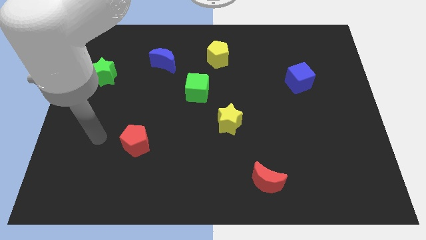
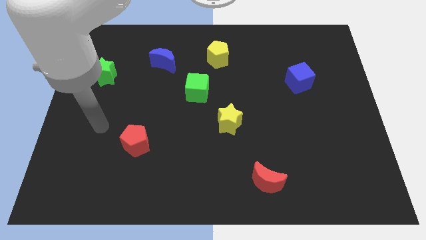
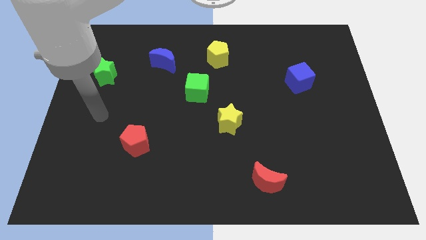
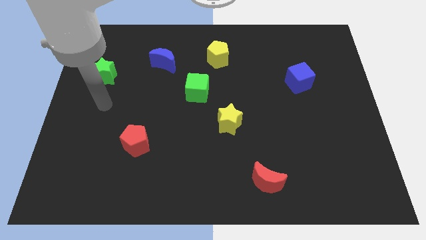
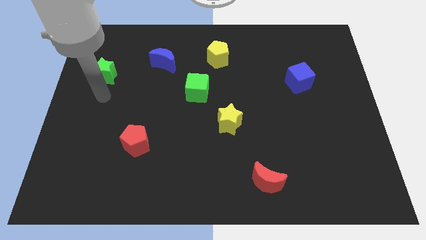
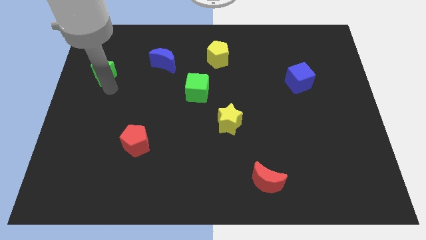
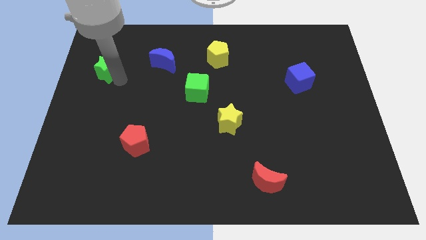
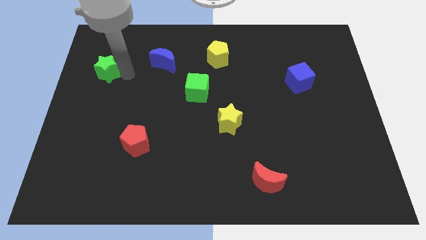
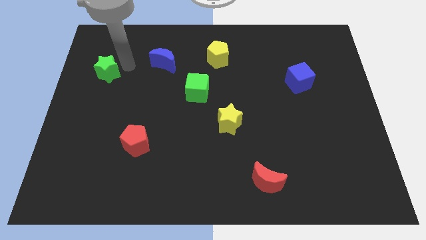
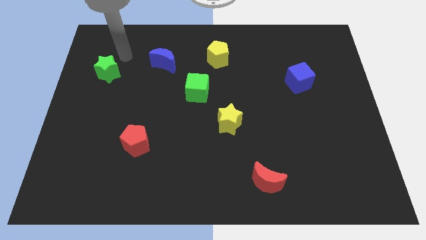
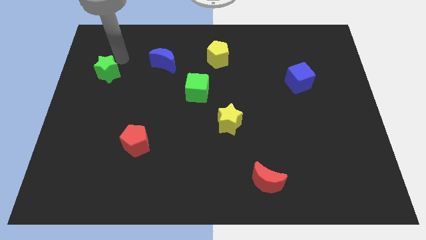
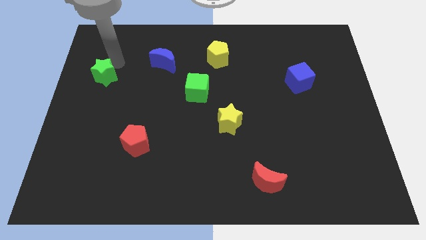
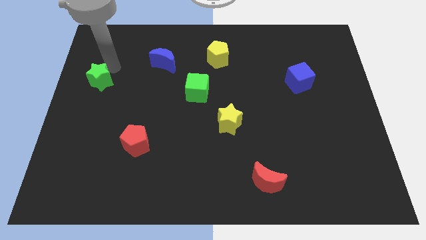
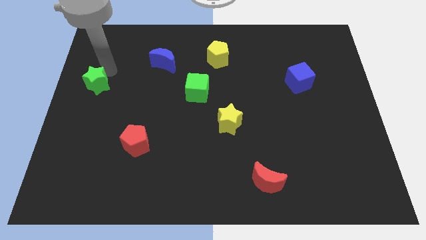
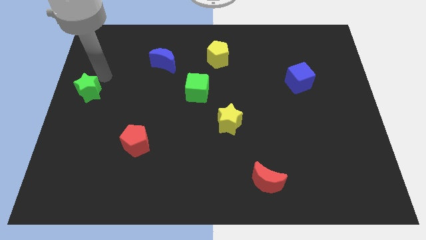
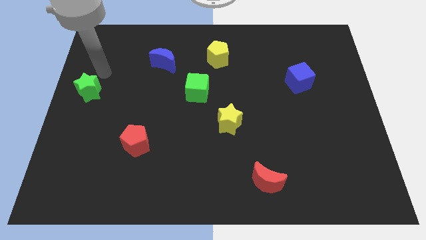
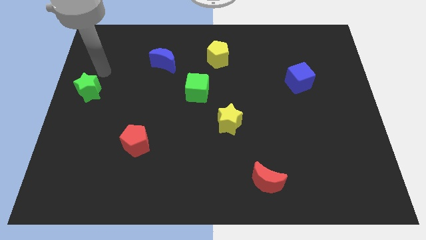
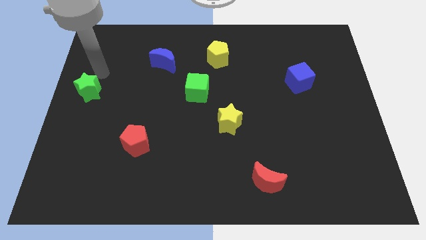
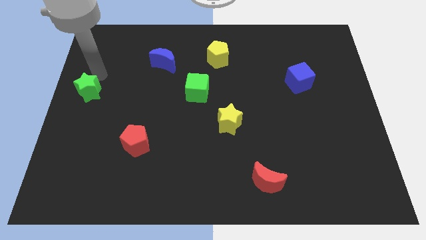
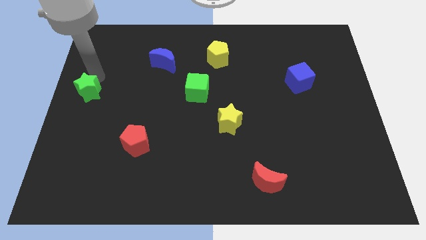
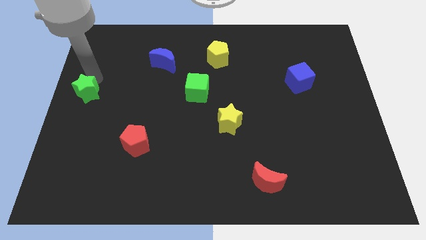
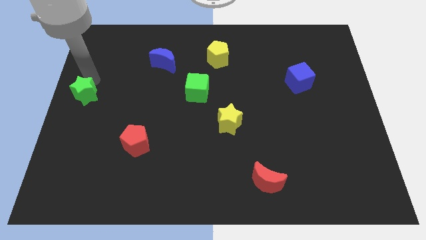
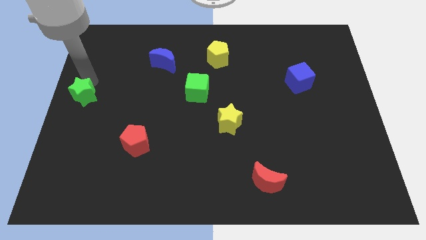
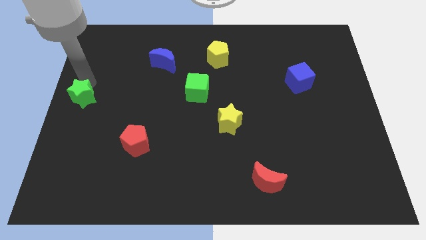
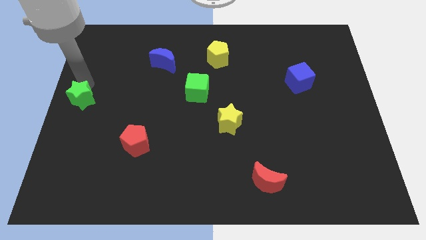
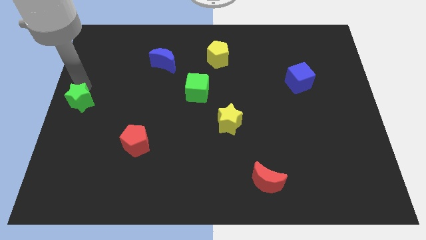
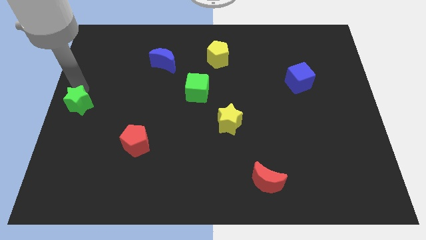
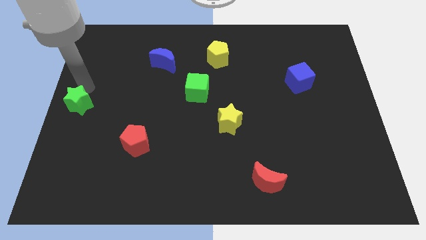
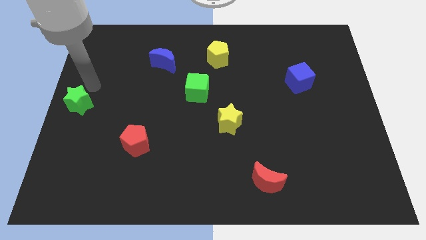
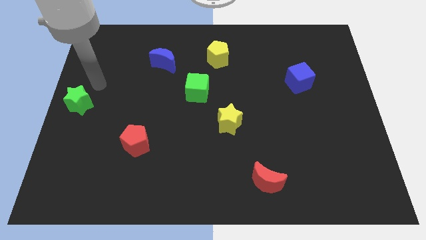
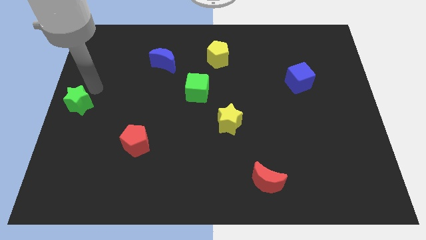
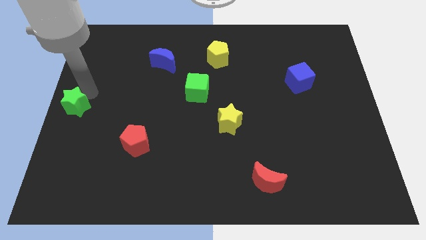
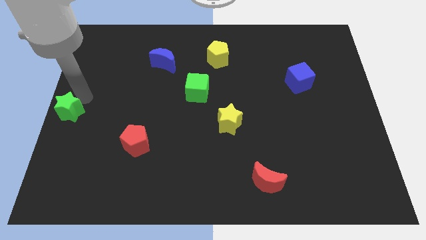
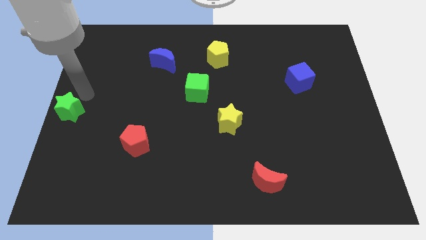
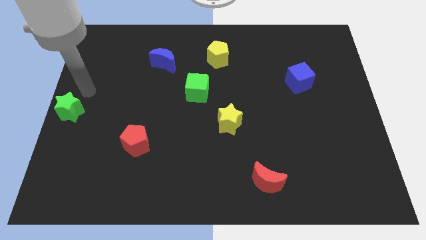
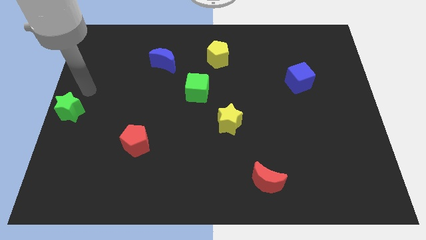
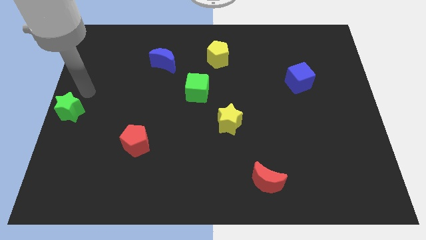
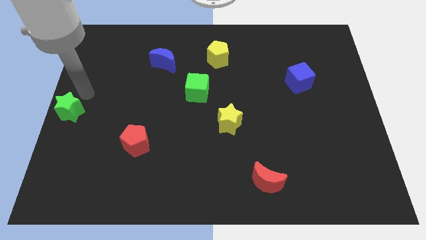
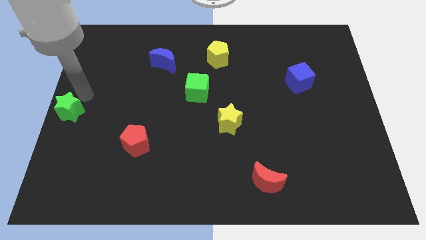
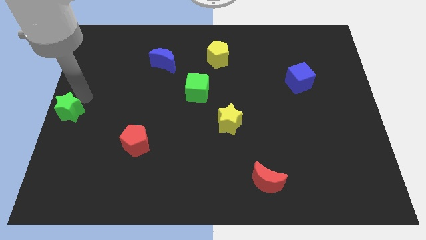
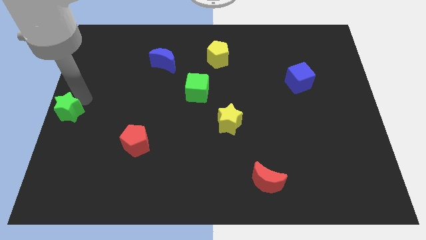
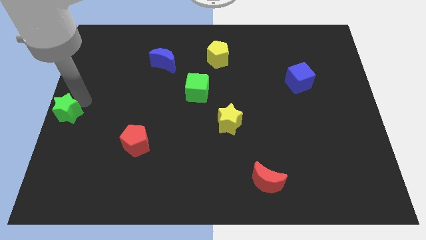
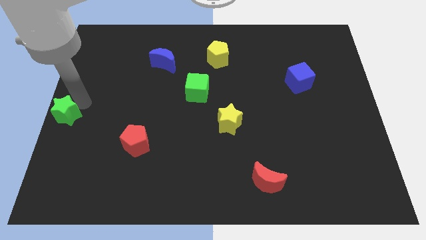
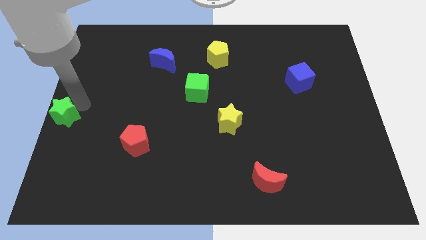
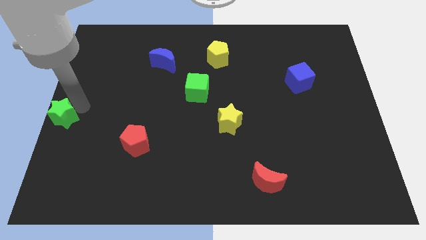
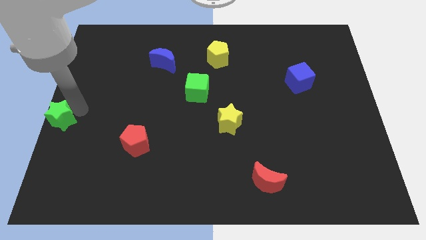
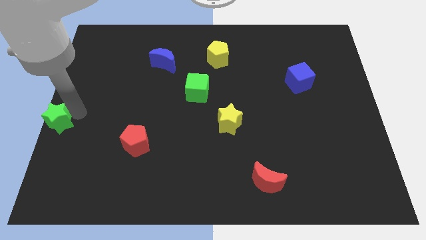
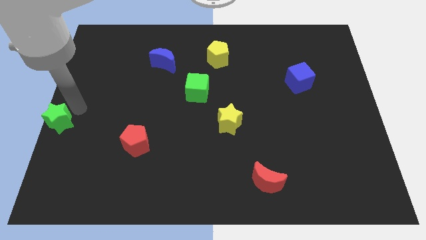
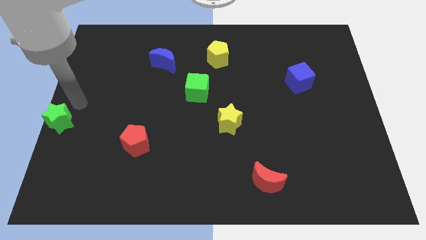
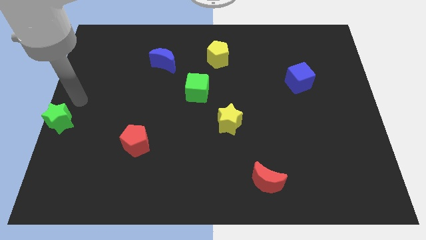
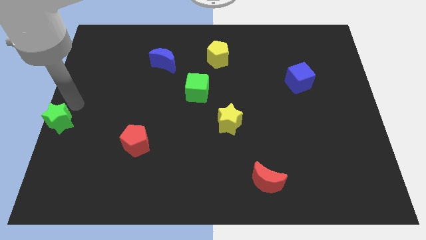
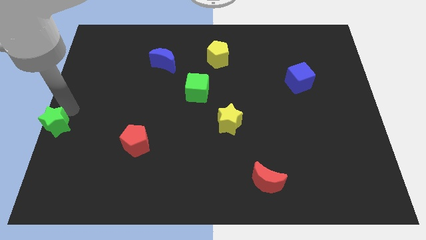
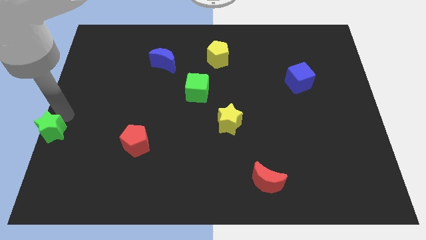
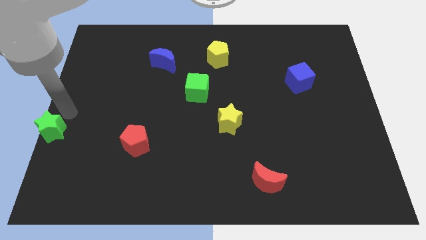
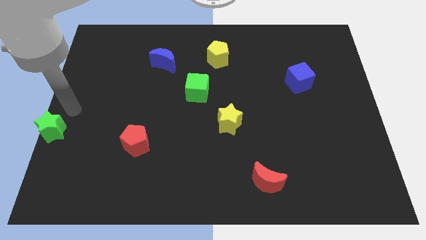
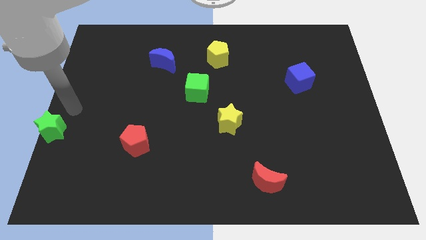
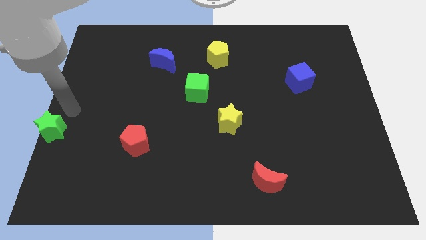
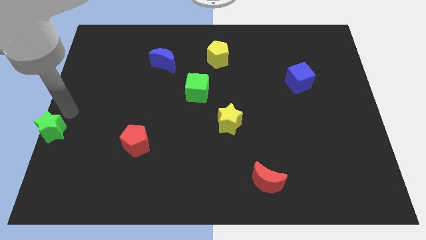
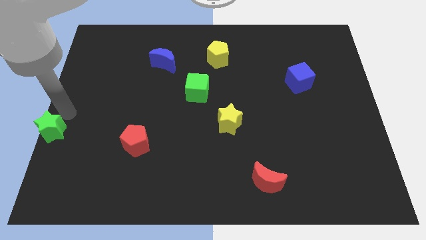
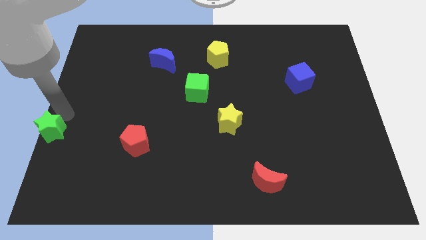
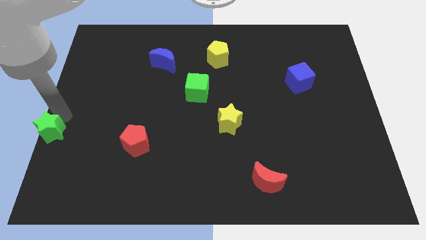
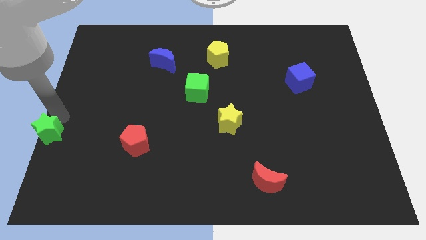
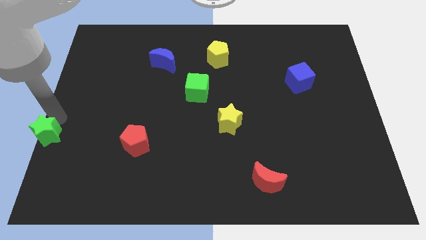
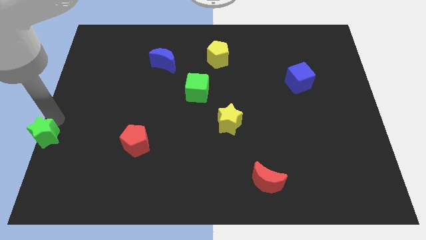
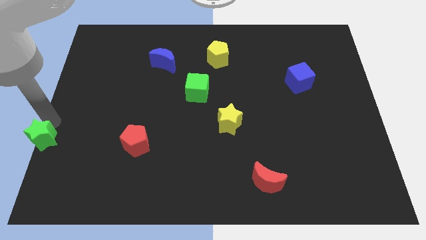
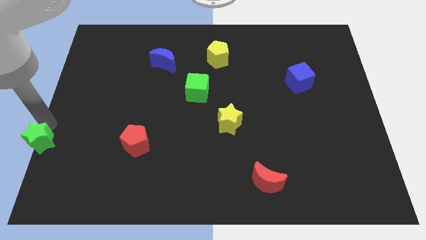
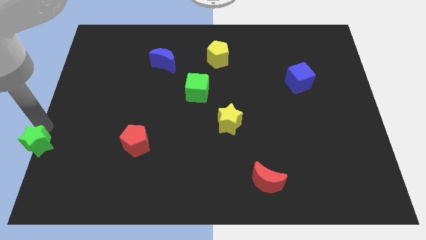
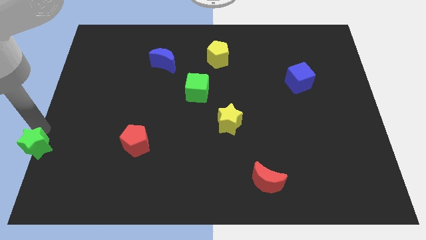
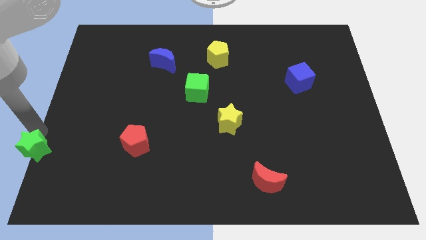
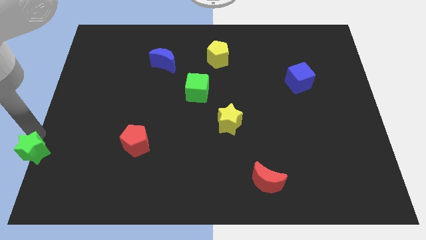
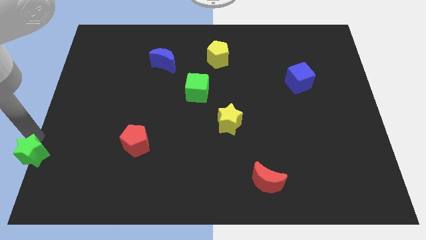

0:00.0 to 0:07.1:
slide the green star to the bottom left of the board
